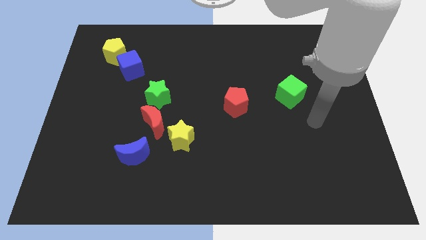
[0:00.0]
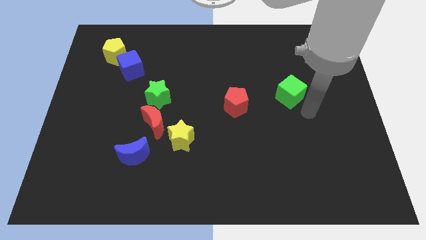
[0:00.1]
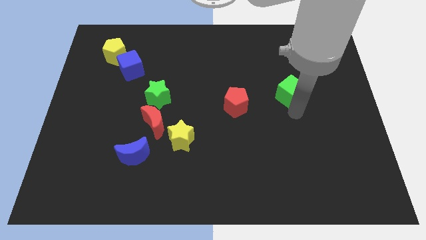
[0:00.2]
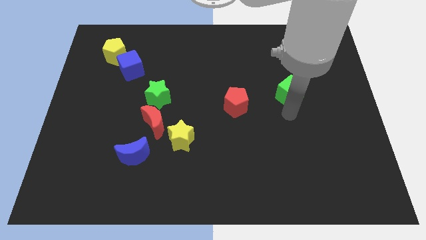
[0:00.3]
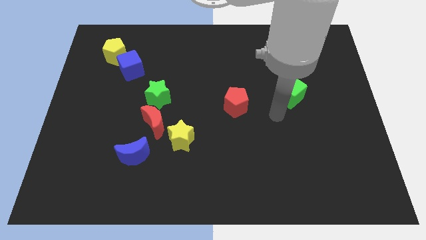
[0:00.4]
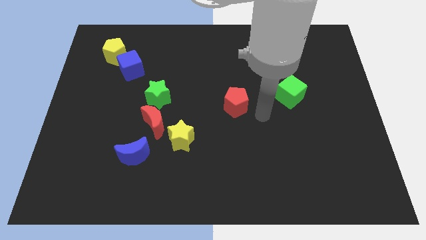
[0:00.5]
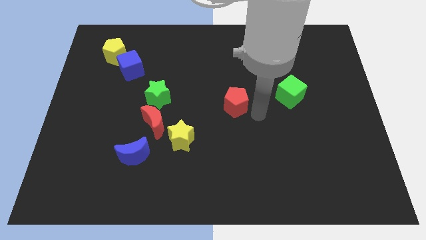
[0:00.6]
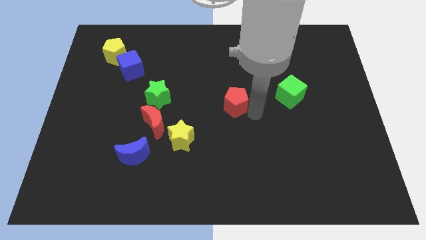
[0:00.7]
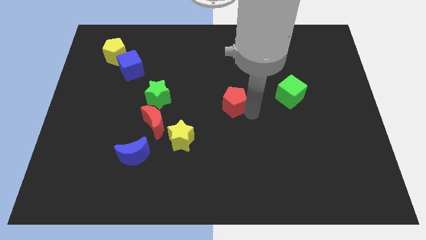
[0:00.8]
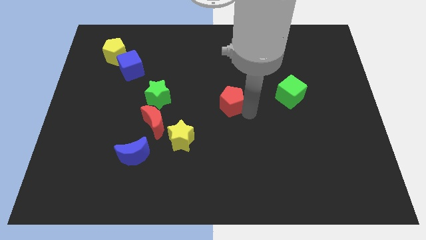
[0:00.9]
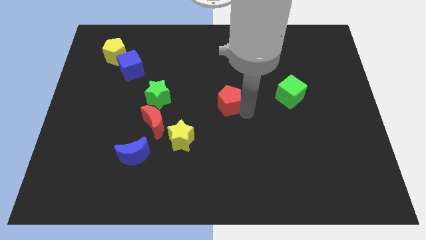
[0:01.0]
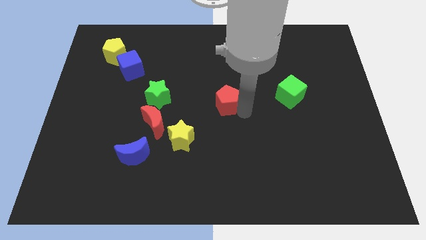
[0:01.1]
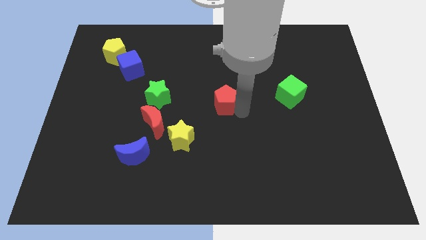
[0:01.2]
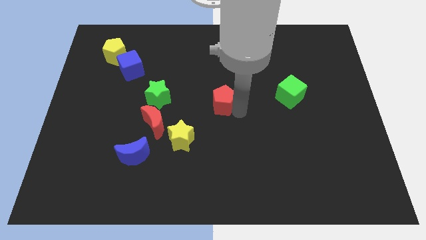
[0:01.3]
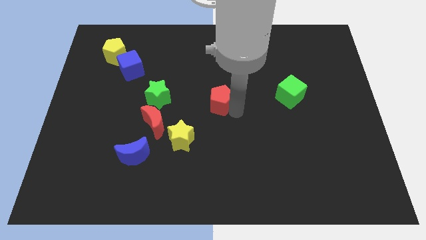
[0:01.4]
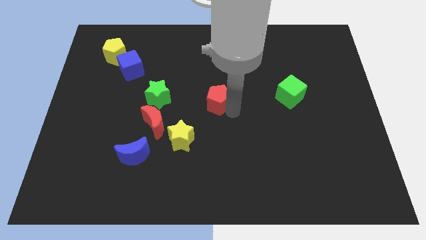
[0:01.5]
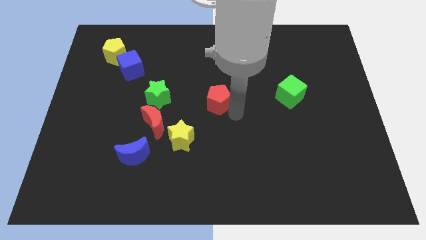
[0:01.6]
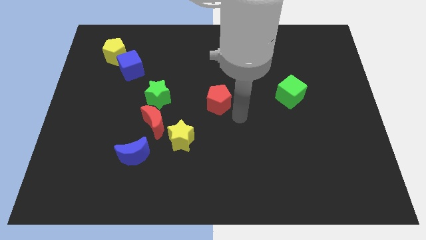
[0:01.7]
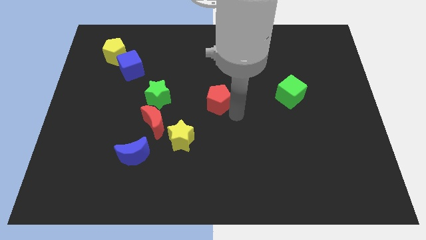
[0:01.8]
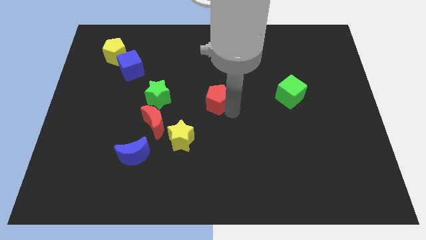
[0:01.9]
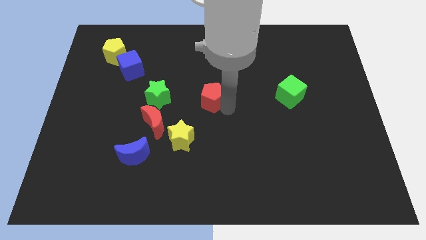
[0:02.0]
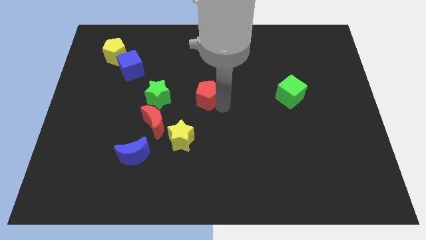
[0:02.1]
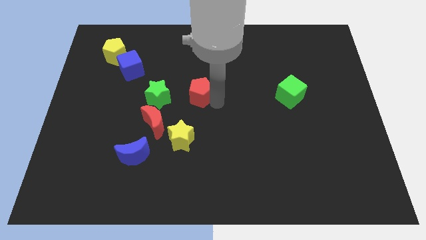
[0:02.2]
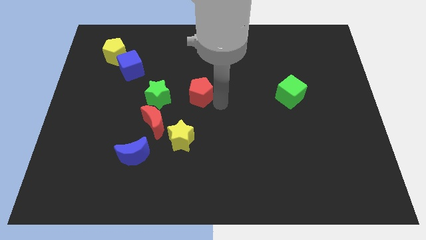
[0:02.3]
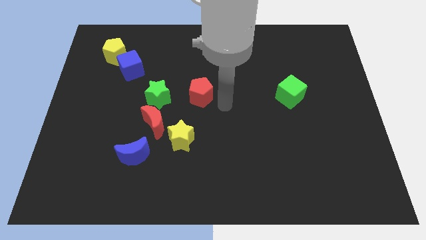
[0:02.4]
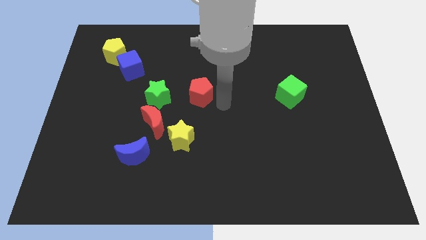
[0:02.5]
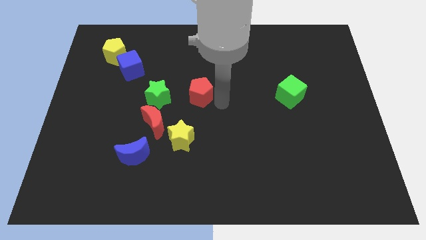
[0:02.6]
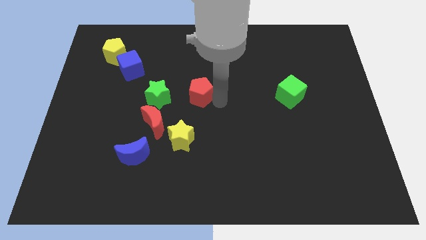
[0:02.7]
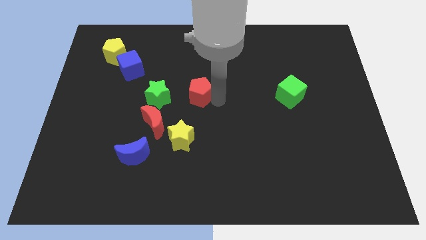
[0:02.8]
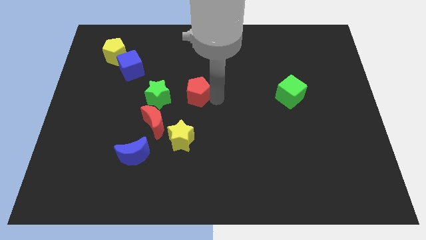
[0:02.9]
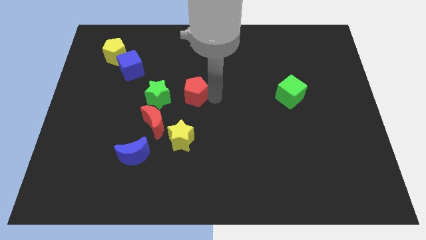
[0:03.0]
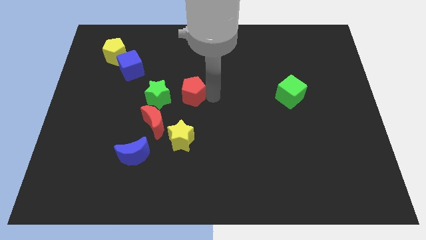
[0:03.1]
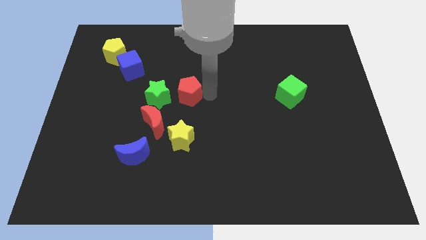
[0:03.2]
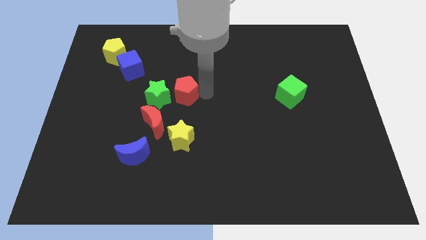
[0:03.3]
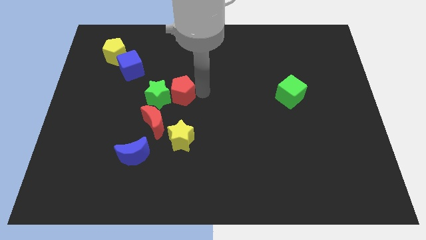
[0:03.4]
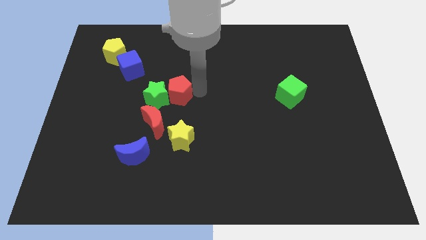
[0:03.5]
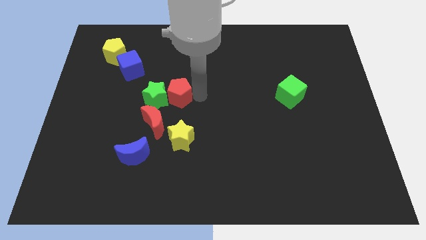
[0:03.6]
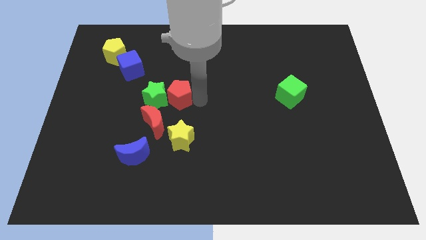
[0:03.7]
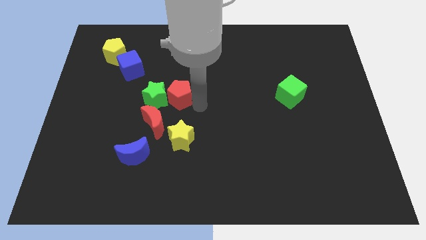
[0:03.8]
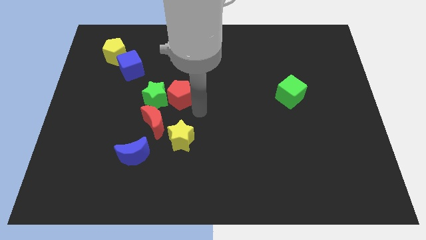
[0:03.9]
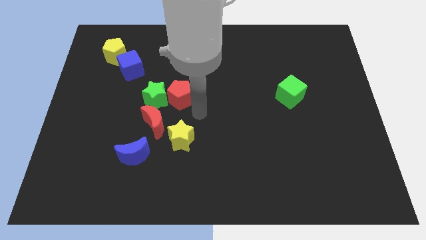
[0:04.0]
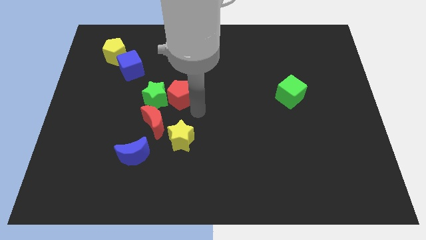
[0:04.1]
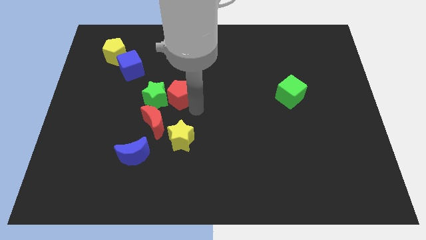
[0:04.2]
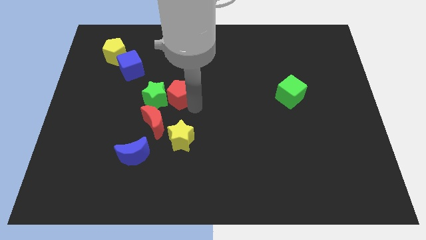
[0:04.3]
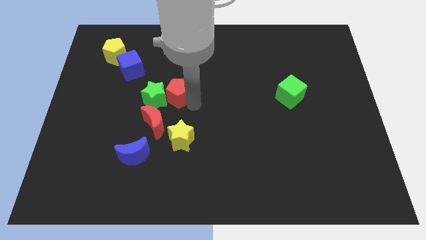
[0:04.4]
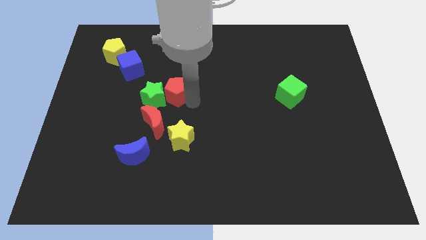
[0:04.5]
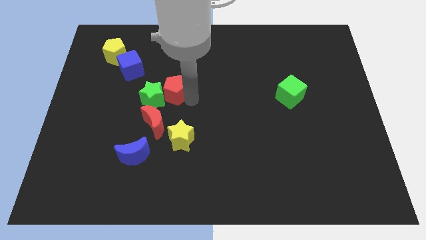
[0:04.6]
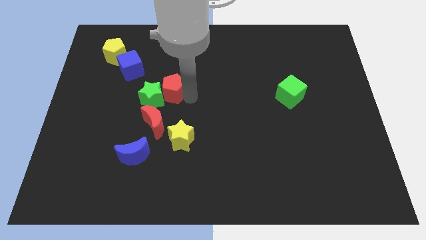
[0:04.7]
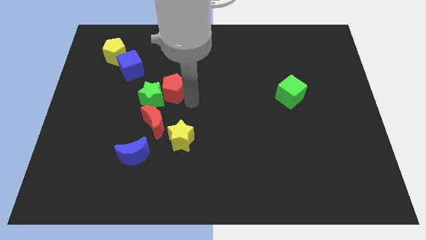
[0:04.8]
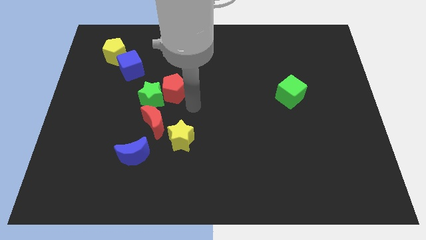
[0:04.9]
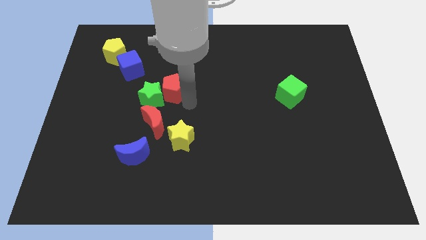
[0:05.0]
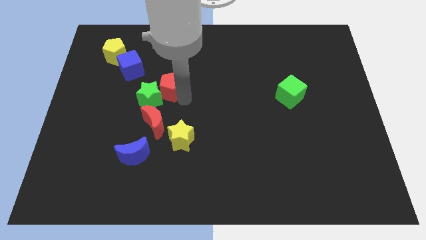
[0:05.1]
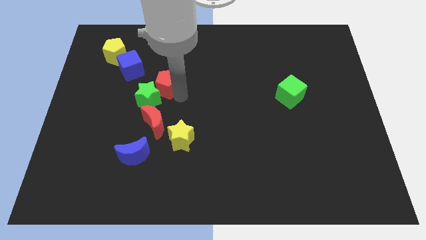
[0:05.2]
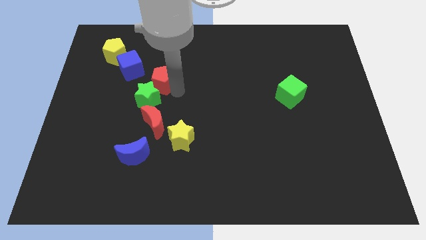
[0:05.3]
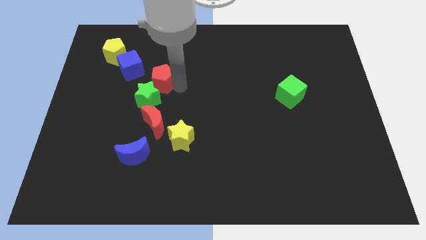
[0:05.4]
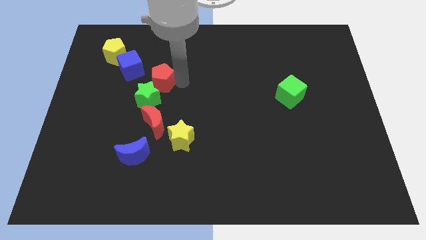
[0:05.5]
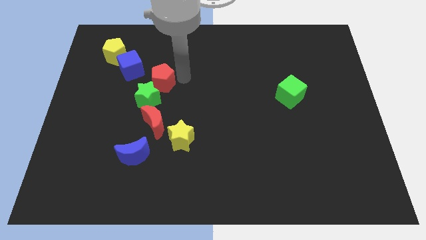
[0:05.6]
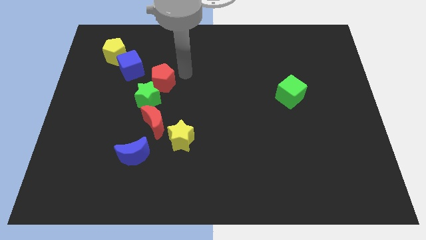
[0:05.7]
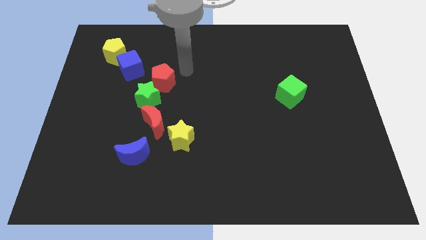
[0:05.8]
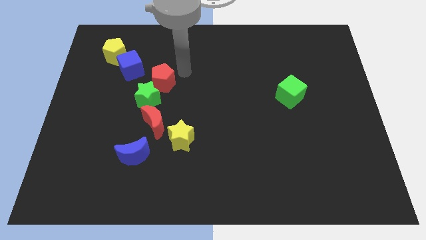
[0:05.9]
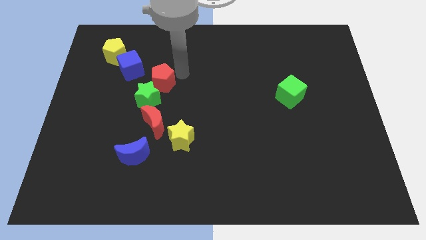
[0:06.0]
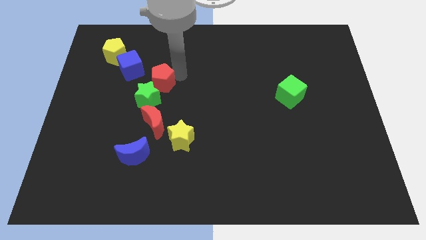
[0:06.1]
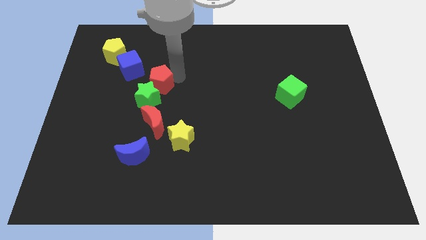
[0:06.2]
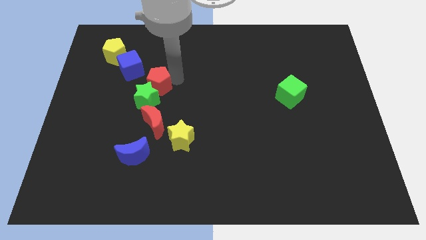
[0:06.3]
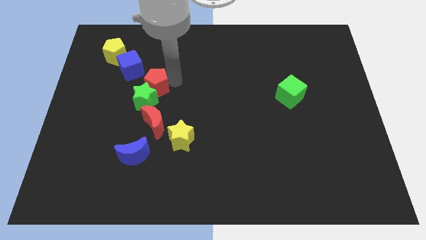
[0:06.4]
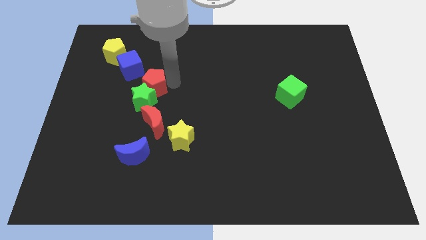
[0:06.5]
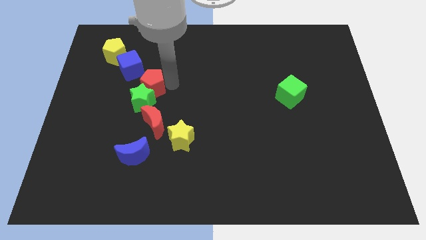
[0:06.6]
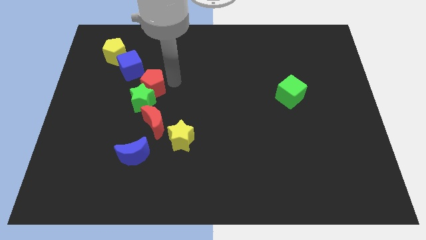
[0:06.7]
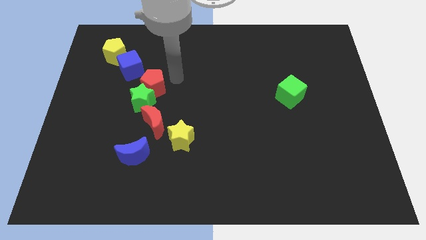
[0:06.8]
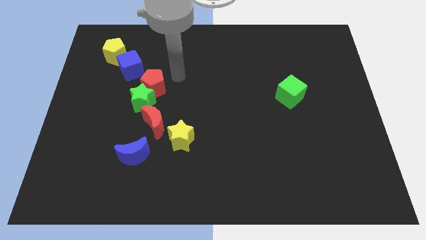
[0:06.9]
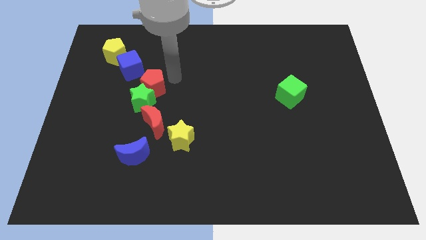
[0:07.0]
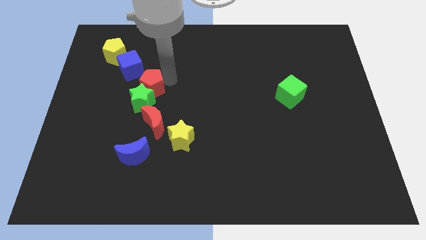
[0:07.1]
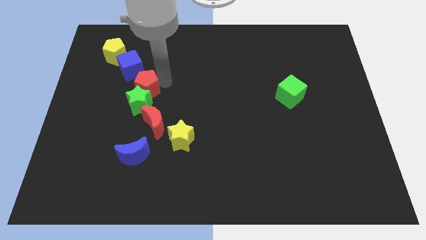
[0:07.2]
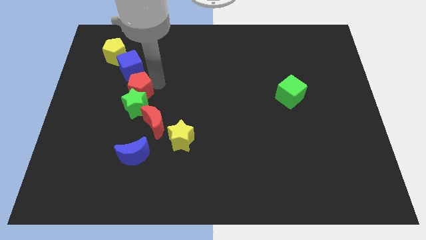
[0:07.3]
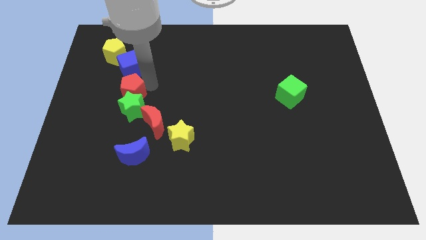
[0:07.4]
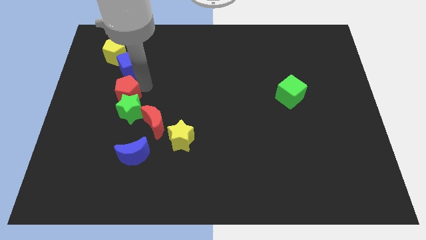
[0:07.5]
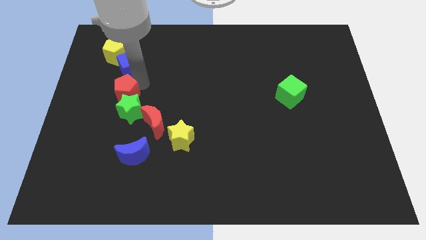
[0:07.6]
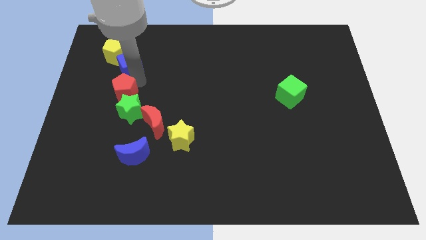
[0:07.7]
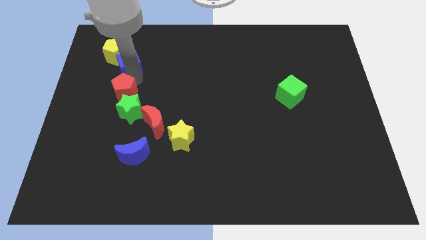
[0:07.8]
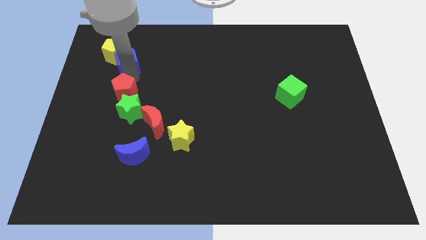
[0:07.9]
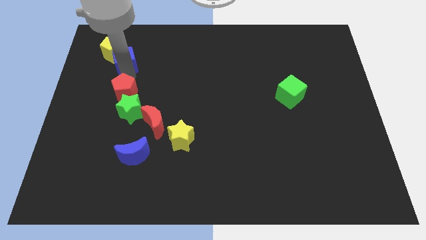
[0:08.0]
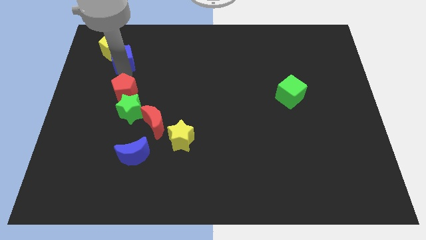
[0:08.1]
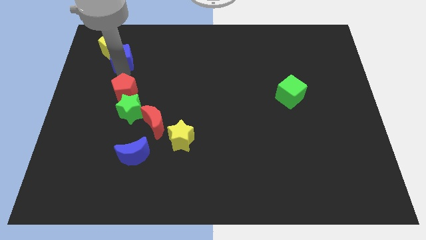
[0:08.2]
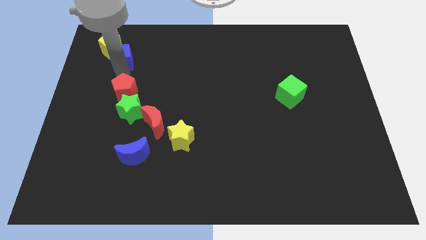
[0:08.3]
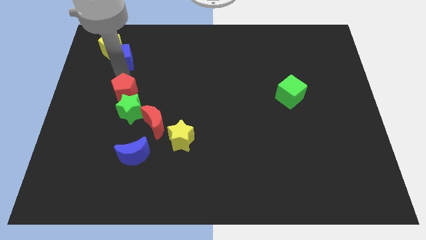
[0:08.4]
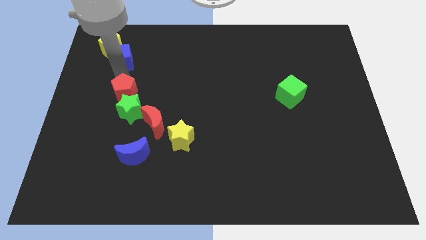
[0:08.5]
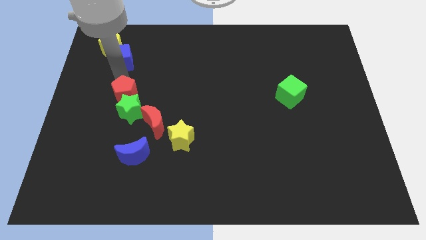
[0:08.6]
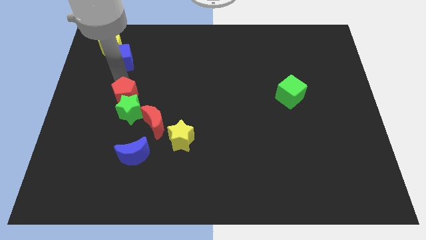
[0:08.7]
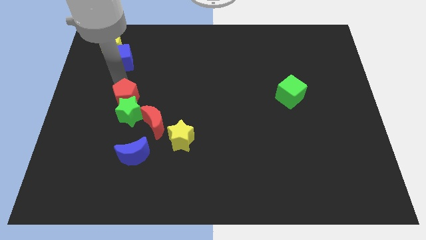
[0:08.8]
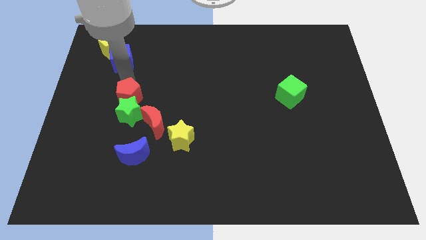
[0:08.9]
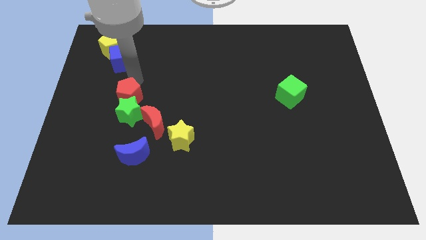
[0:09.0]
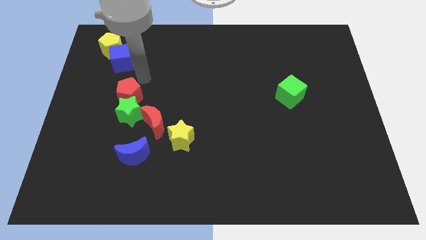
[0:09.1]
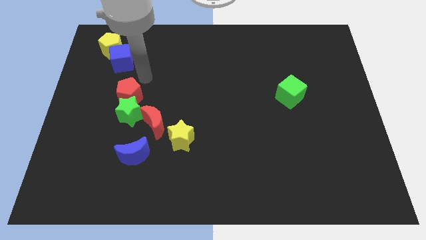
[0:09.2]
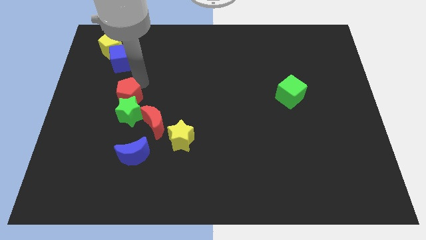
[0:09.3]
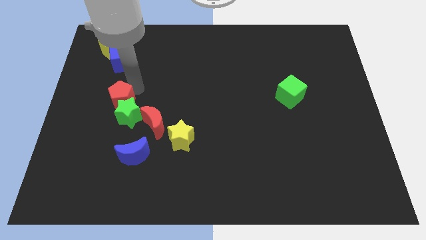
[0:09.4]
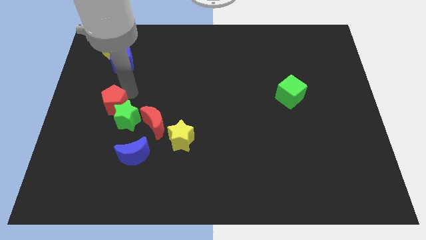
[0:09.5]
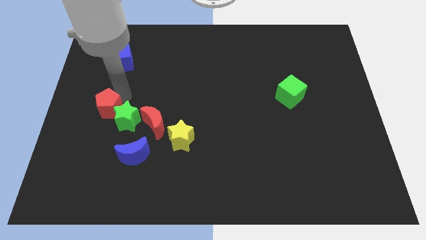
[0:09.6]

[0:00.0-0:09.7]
put the red pentagon to the left of the red moon
